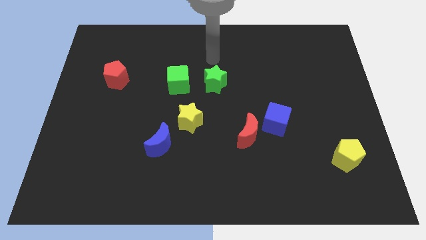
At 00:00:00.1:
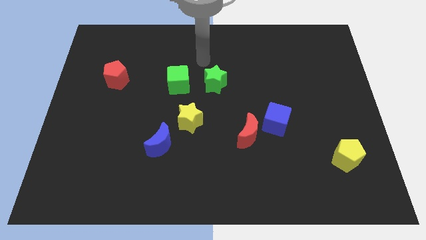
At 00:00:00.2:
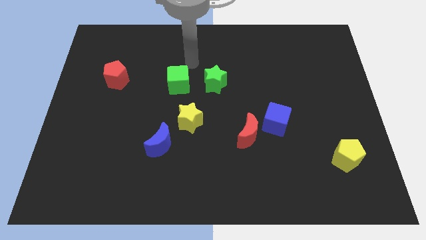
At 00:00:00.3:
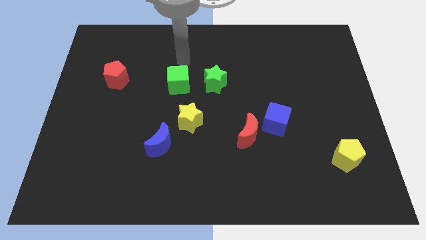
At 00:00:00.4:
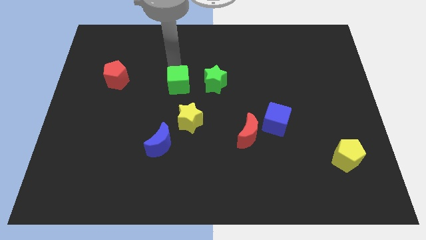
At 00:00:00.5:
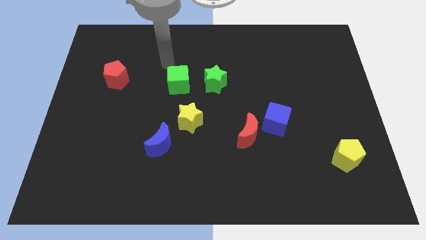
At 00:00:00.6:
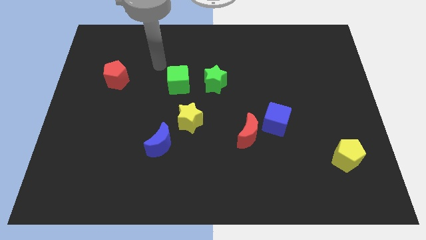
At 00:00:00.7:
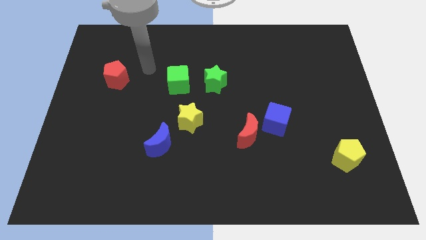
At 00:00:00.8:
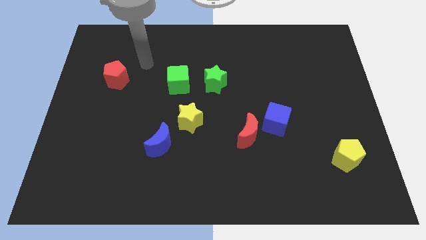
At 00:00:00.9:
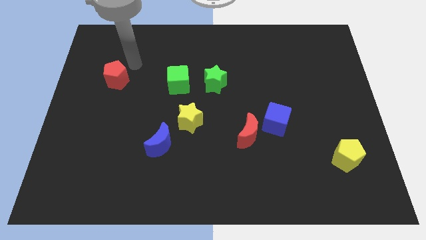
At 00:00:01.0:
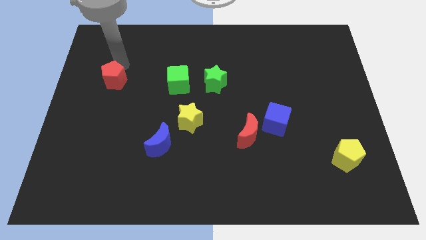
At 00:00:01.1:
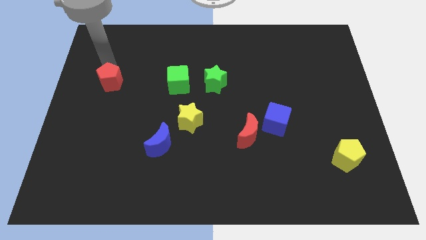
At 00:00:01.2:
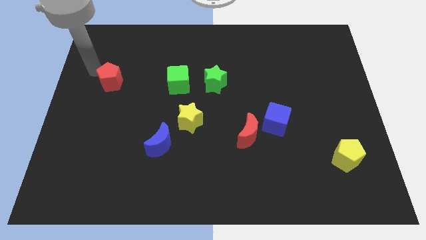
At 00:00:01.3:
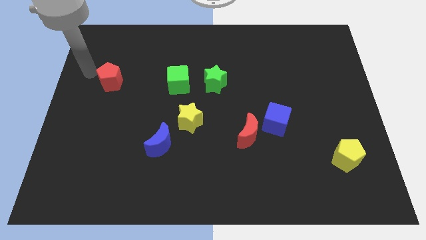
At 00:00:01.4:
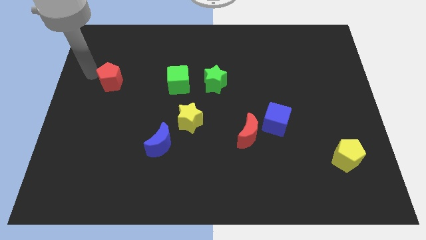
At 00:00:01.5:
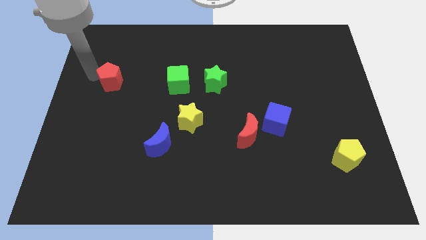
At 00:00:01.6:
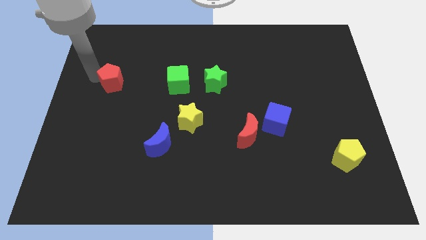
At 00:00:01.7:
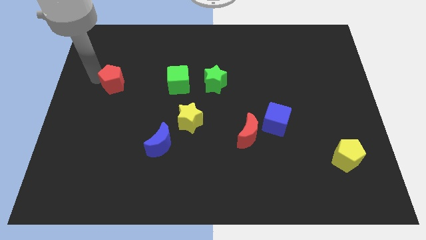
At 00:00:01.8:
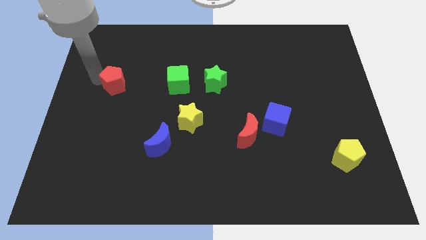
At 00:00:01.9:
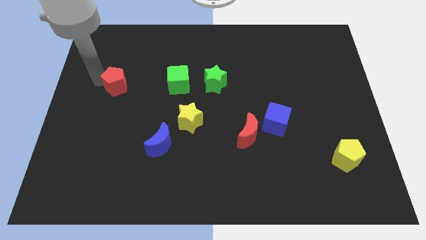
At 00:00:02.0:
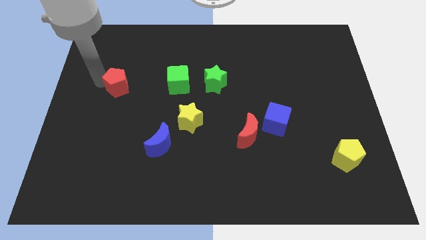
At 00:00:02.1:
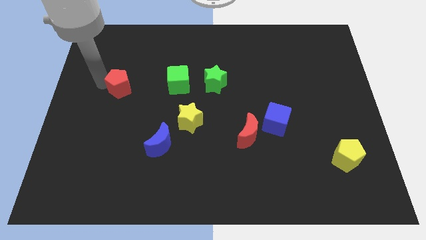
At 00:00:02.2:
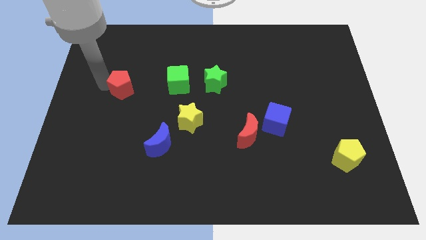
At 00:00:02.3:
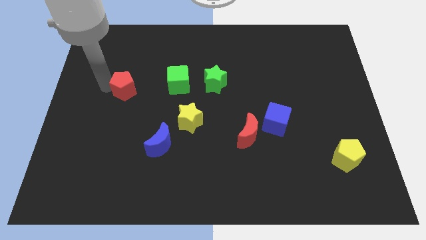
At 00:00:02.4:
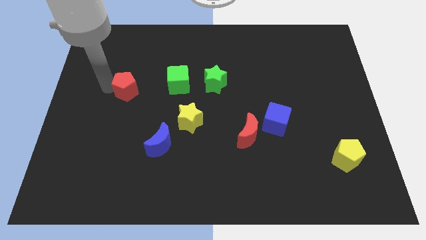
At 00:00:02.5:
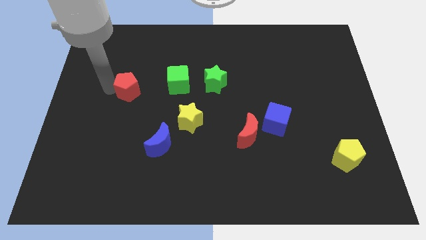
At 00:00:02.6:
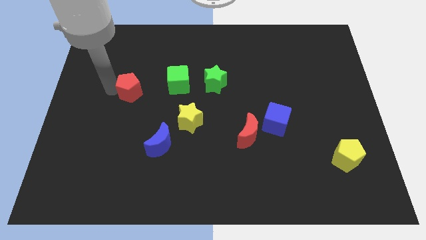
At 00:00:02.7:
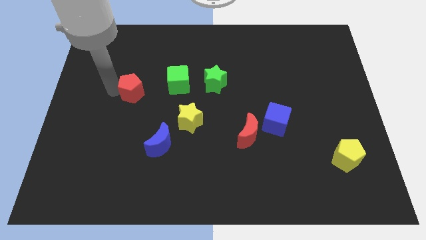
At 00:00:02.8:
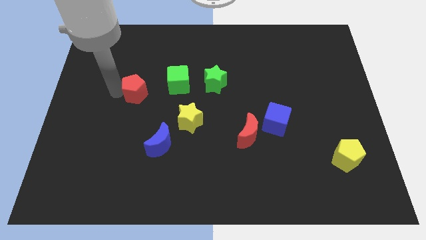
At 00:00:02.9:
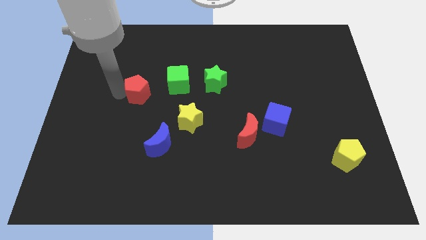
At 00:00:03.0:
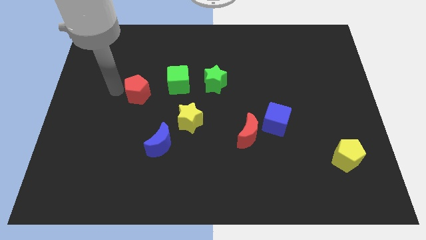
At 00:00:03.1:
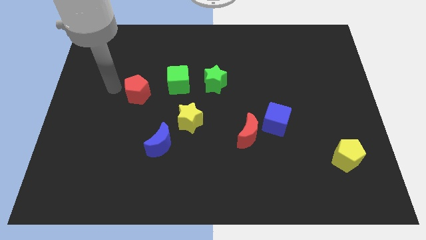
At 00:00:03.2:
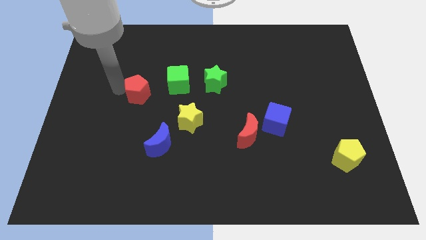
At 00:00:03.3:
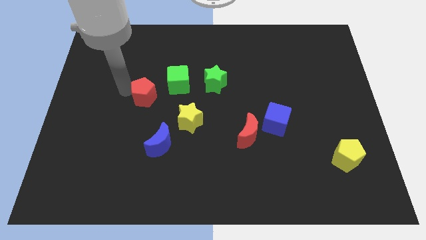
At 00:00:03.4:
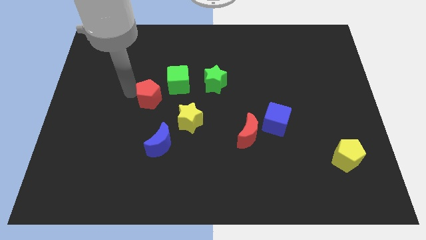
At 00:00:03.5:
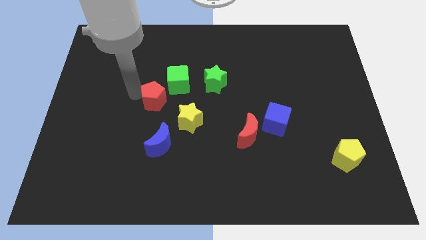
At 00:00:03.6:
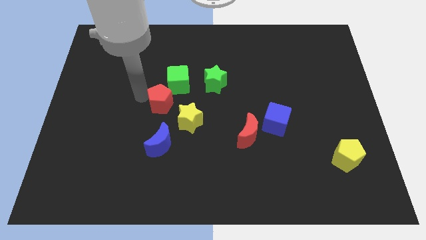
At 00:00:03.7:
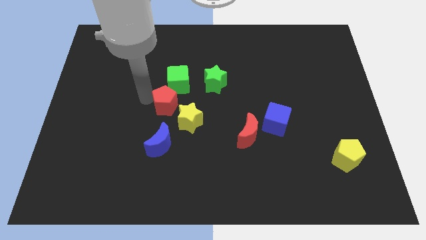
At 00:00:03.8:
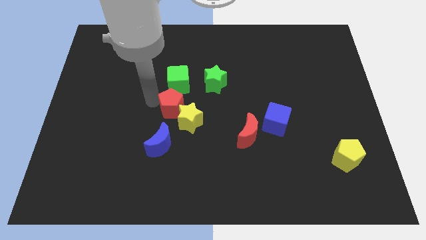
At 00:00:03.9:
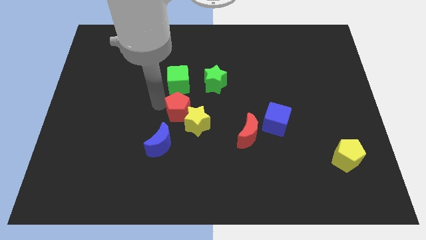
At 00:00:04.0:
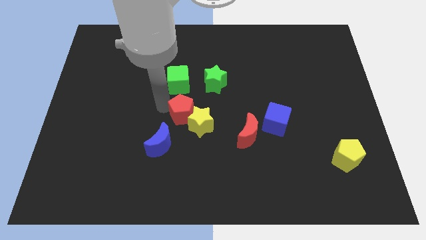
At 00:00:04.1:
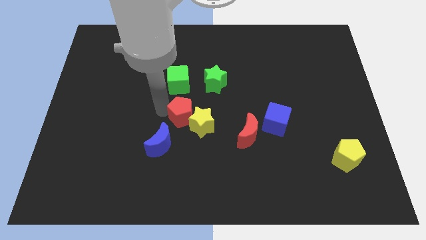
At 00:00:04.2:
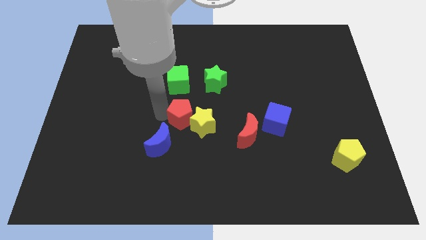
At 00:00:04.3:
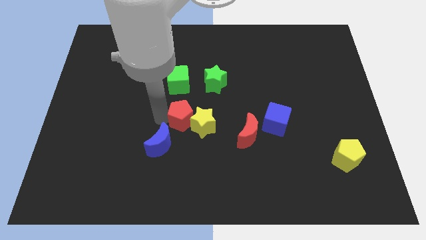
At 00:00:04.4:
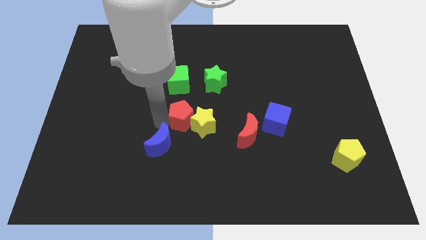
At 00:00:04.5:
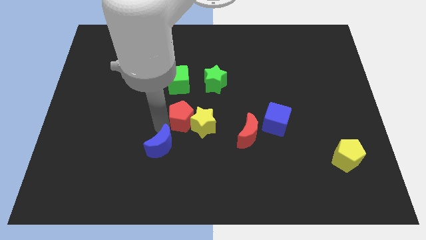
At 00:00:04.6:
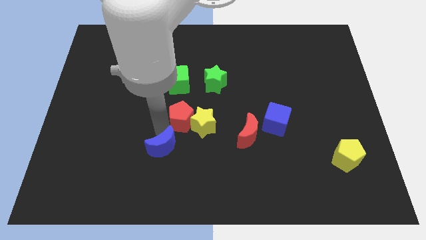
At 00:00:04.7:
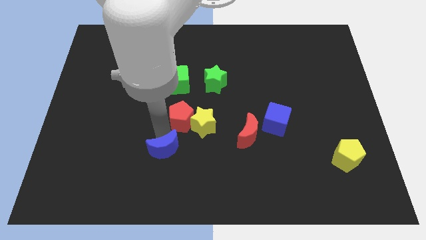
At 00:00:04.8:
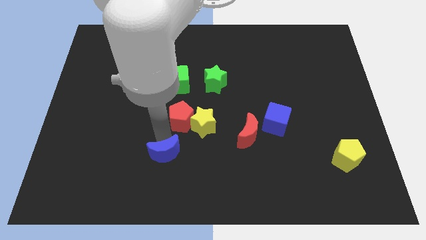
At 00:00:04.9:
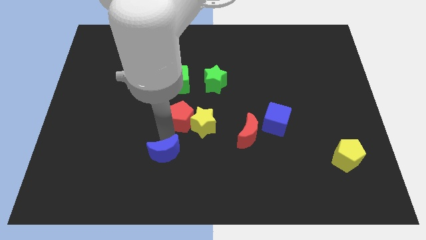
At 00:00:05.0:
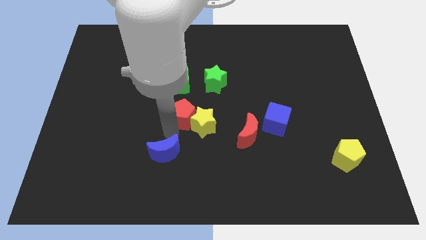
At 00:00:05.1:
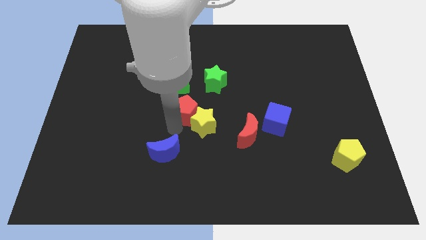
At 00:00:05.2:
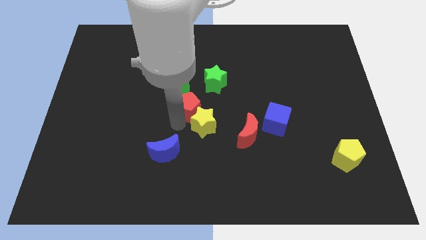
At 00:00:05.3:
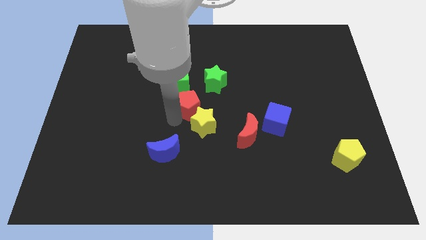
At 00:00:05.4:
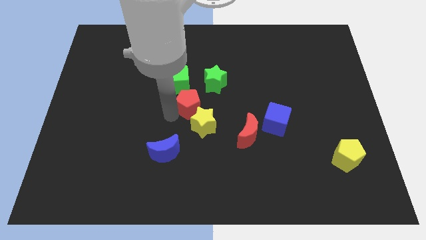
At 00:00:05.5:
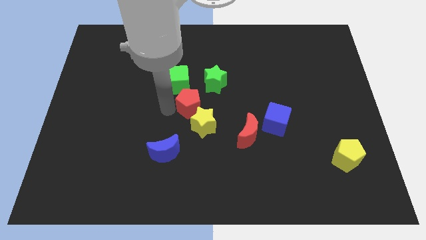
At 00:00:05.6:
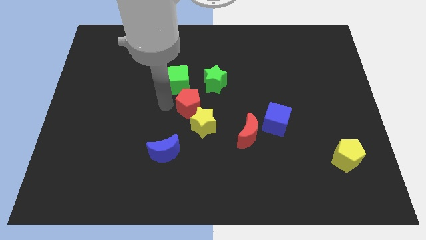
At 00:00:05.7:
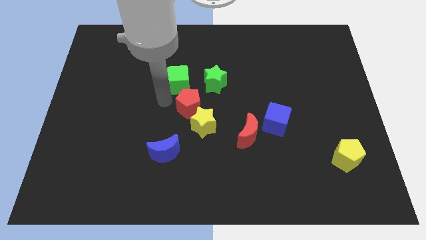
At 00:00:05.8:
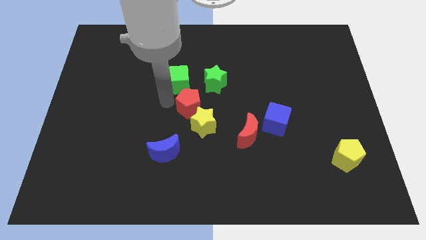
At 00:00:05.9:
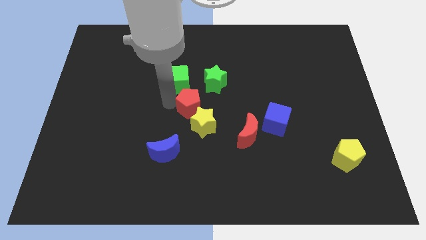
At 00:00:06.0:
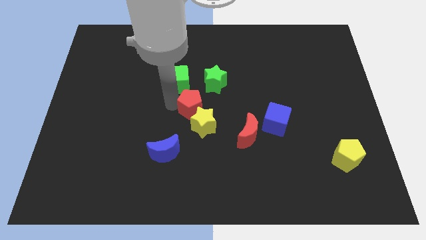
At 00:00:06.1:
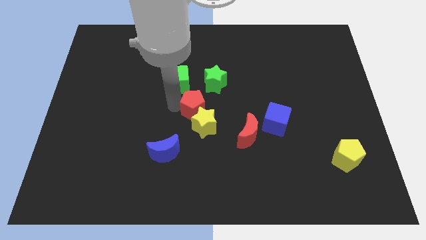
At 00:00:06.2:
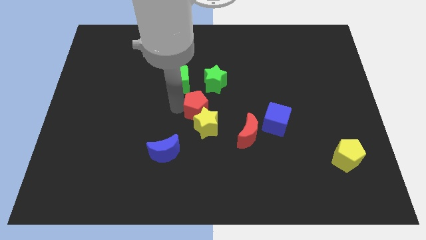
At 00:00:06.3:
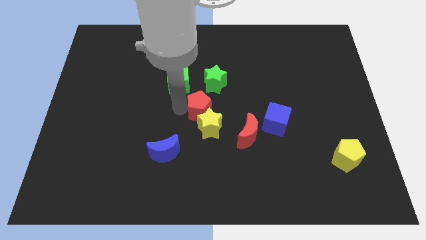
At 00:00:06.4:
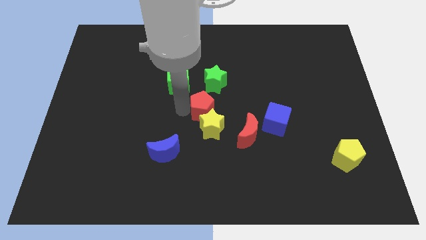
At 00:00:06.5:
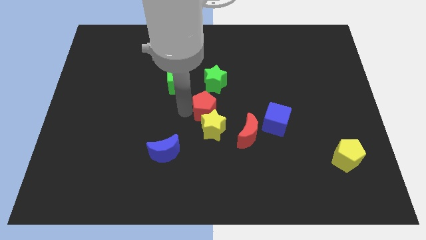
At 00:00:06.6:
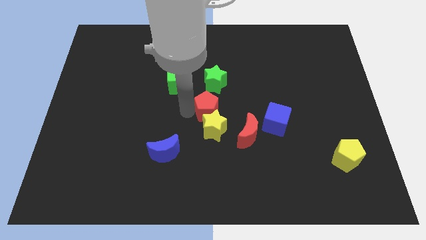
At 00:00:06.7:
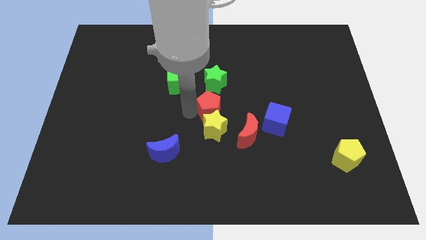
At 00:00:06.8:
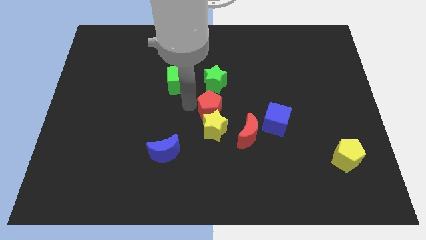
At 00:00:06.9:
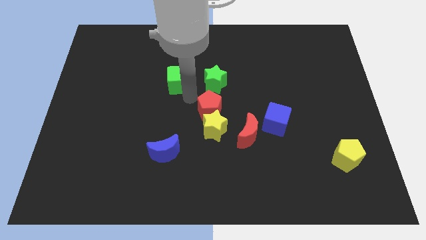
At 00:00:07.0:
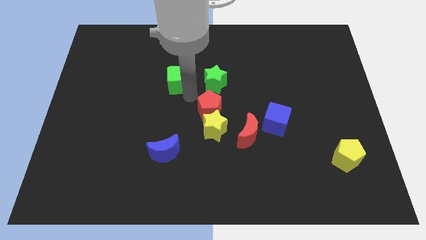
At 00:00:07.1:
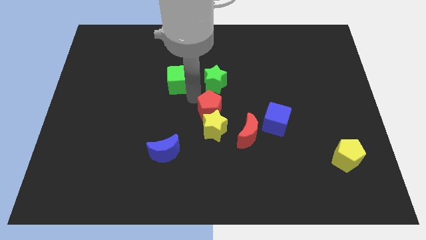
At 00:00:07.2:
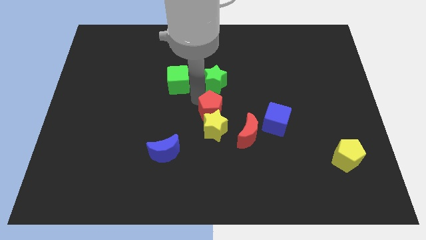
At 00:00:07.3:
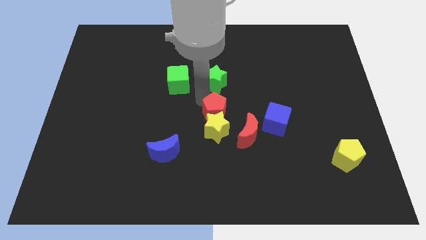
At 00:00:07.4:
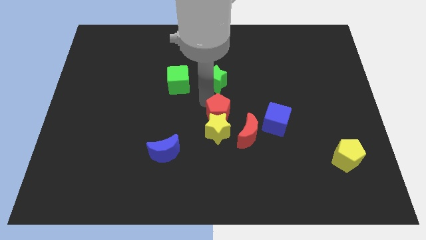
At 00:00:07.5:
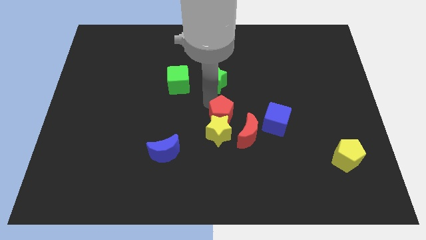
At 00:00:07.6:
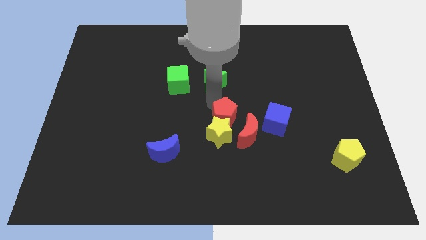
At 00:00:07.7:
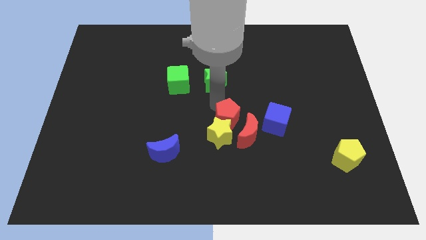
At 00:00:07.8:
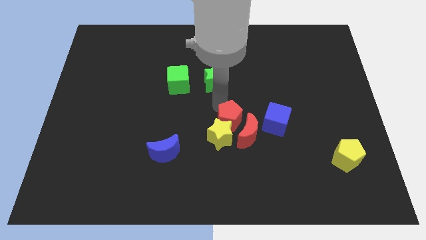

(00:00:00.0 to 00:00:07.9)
move the red pentagon towards the red moon
